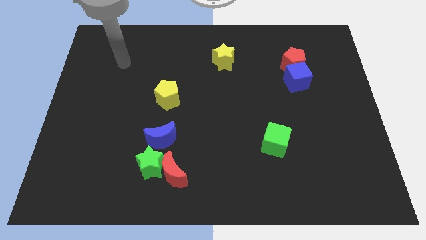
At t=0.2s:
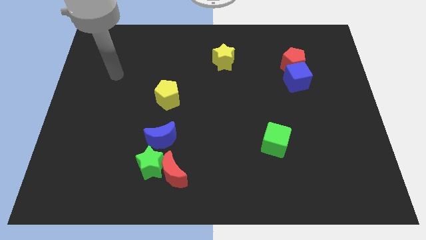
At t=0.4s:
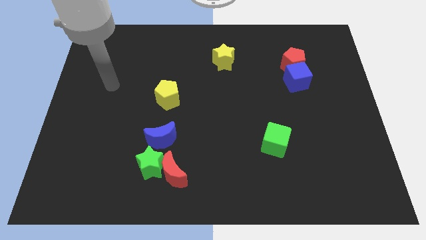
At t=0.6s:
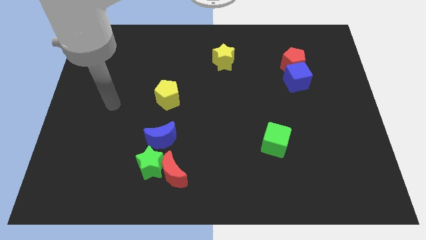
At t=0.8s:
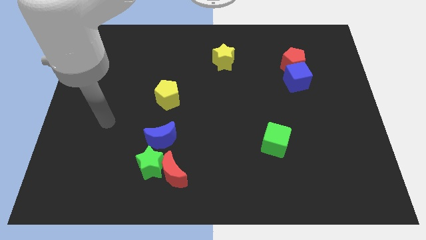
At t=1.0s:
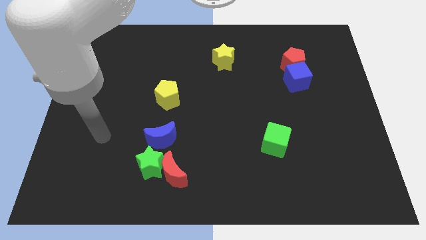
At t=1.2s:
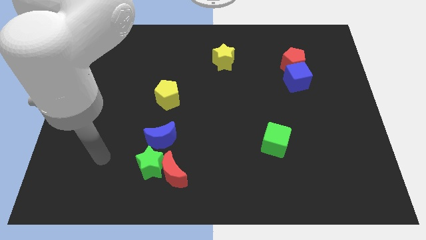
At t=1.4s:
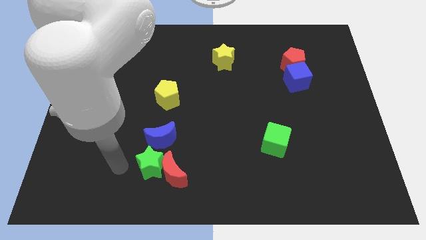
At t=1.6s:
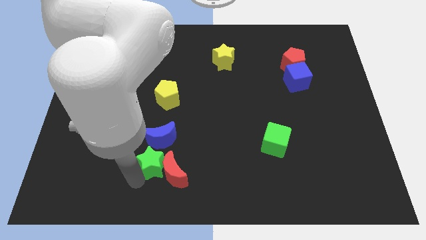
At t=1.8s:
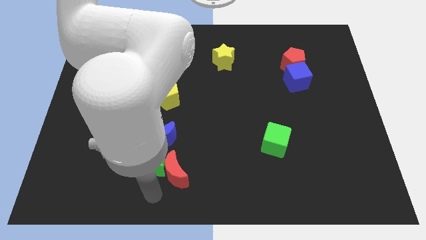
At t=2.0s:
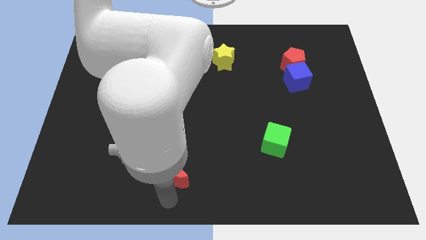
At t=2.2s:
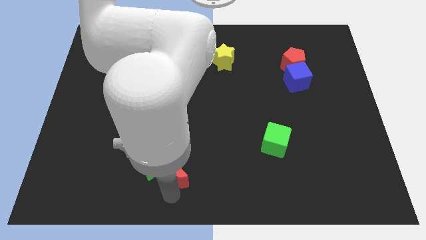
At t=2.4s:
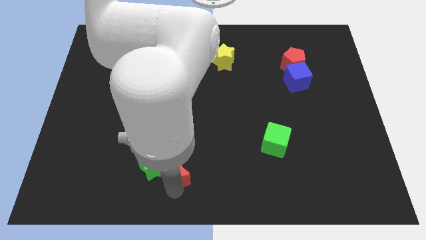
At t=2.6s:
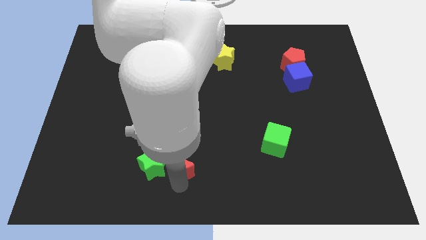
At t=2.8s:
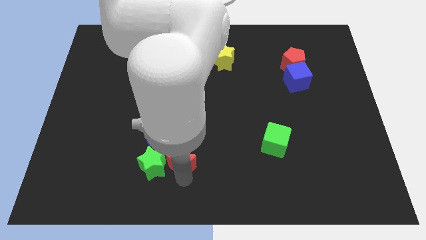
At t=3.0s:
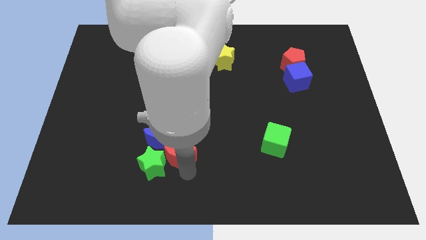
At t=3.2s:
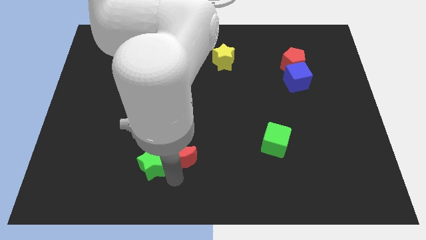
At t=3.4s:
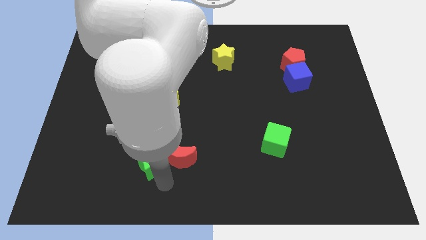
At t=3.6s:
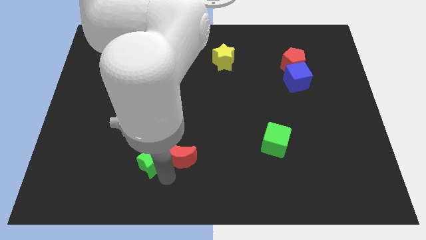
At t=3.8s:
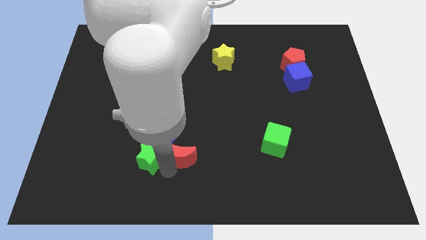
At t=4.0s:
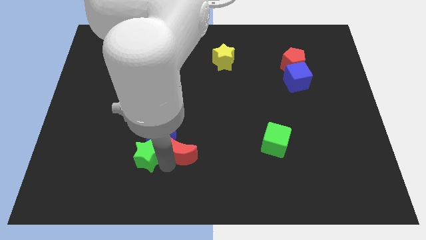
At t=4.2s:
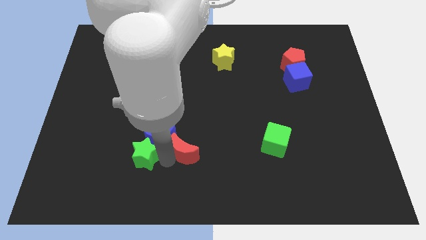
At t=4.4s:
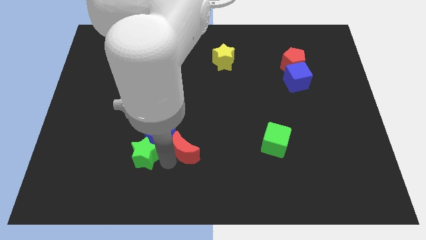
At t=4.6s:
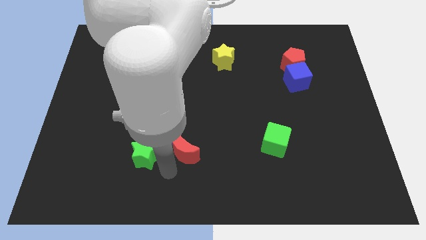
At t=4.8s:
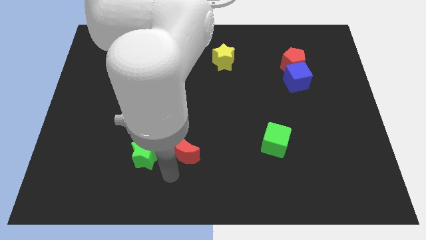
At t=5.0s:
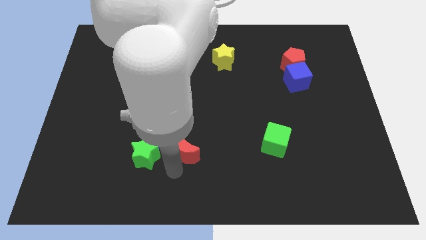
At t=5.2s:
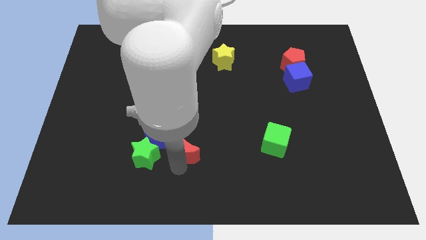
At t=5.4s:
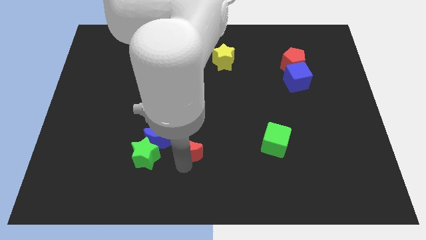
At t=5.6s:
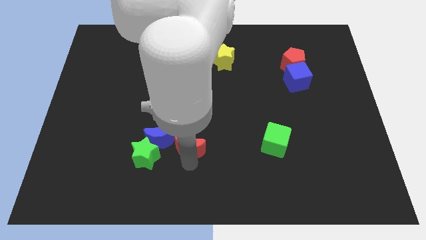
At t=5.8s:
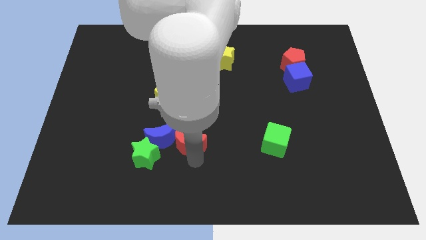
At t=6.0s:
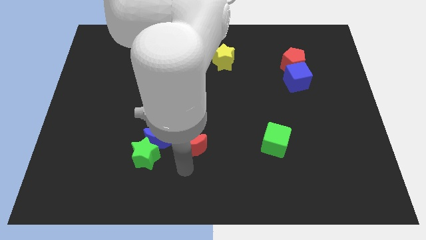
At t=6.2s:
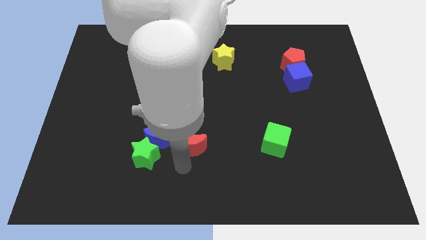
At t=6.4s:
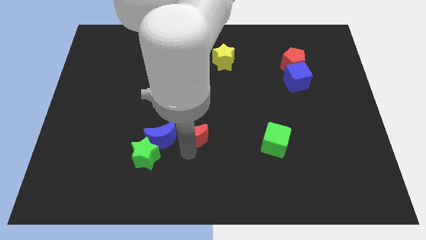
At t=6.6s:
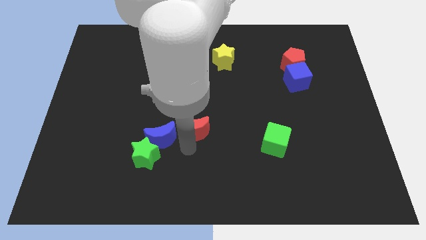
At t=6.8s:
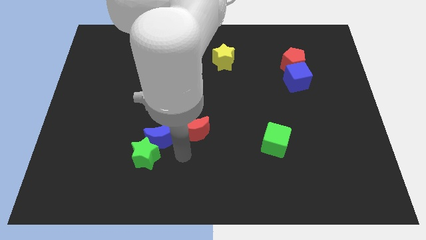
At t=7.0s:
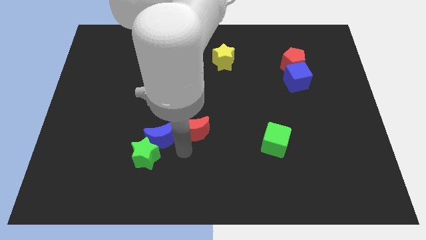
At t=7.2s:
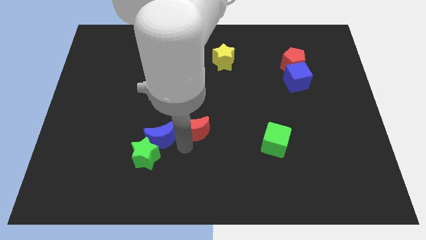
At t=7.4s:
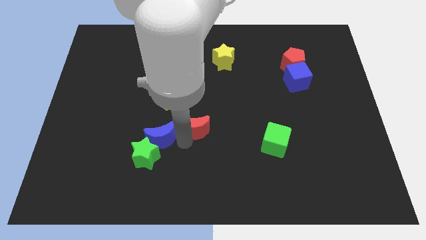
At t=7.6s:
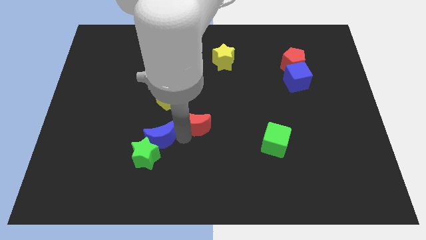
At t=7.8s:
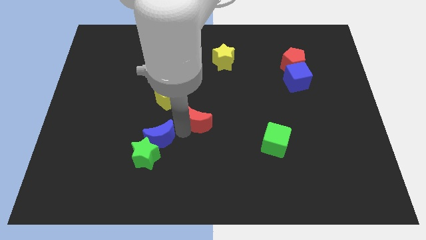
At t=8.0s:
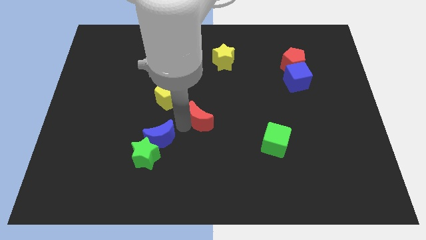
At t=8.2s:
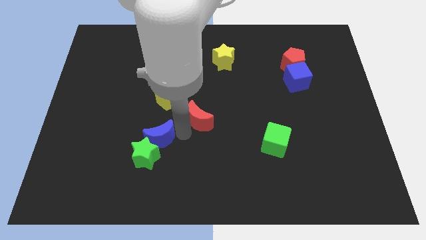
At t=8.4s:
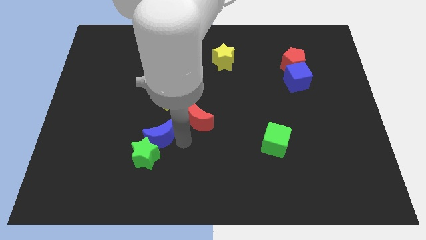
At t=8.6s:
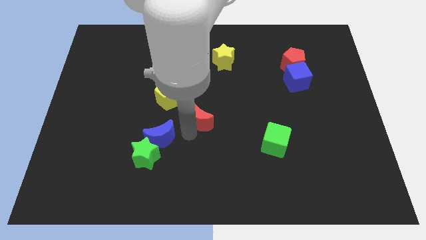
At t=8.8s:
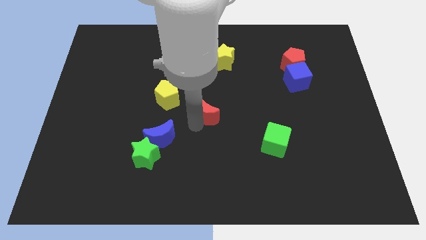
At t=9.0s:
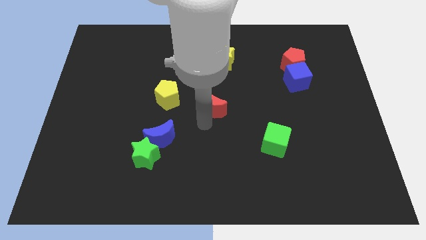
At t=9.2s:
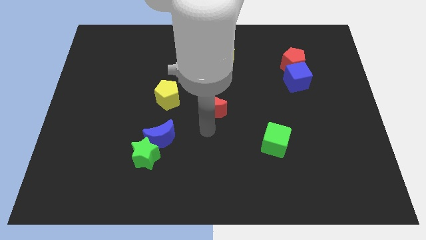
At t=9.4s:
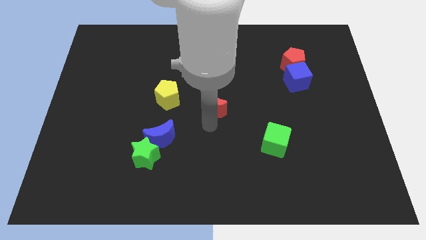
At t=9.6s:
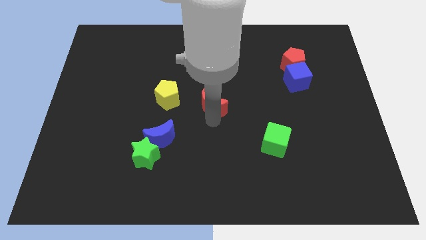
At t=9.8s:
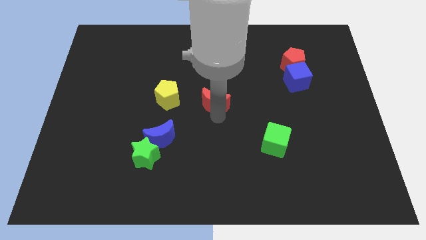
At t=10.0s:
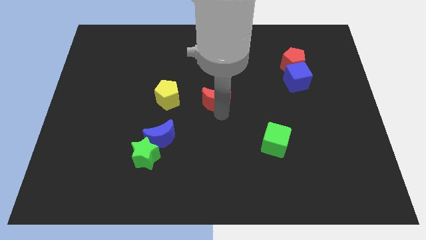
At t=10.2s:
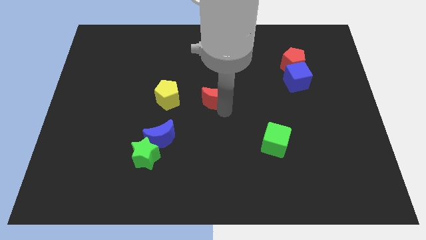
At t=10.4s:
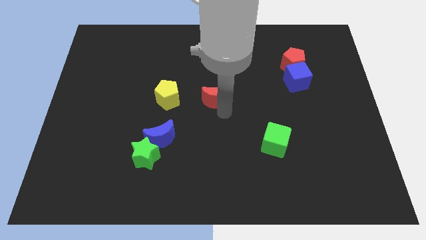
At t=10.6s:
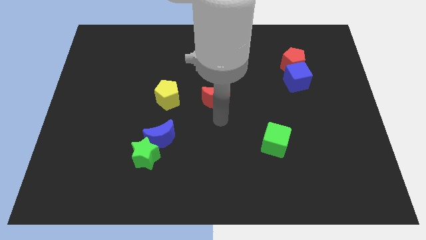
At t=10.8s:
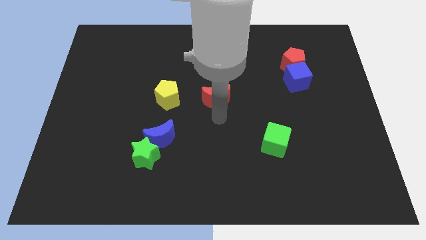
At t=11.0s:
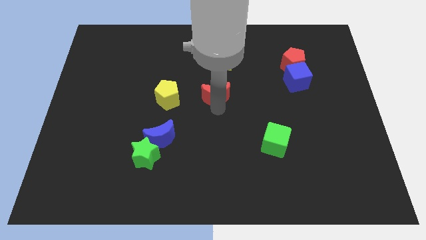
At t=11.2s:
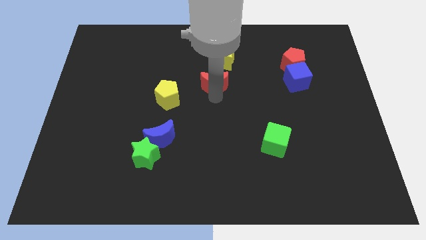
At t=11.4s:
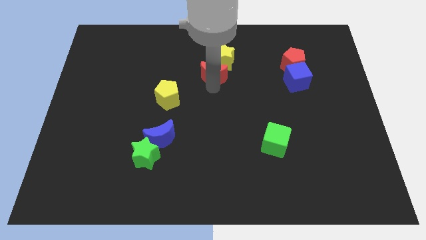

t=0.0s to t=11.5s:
slide the red moon towards the yellow star

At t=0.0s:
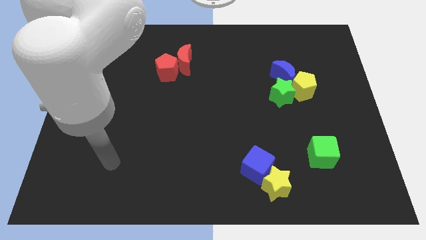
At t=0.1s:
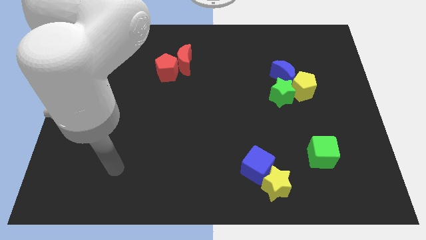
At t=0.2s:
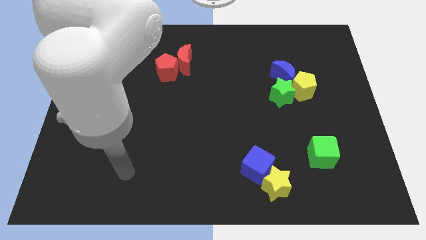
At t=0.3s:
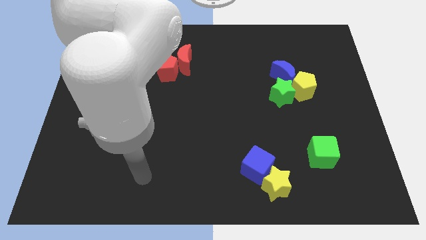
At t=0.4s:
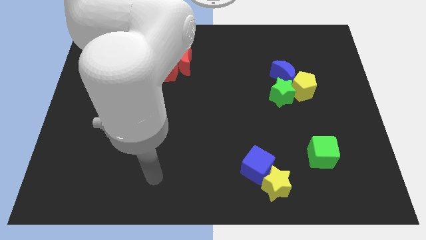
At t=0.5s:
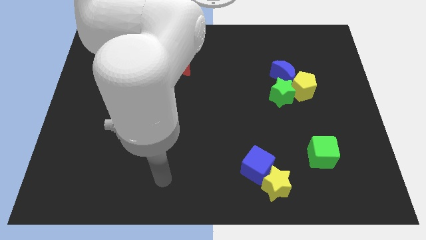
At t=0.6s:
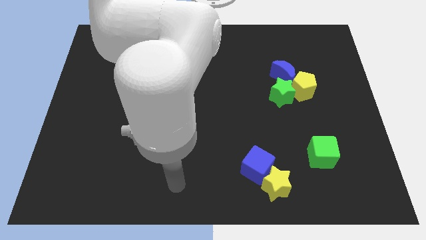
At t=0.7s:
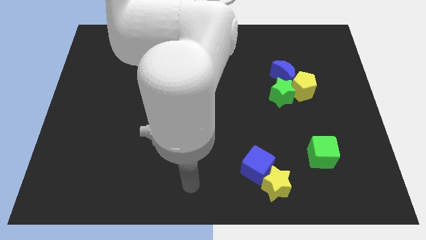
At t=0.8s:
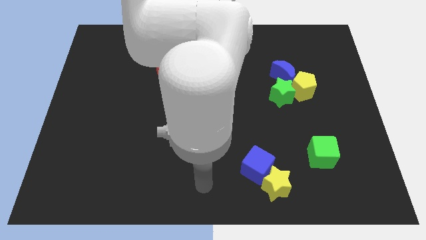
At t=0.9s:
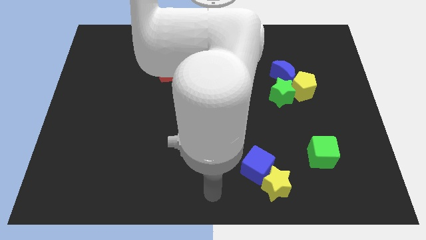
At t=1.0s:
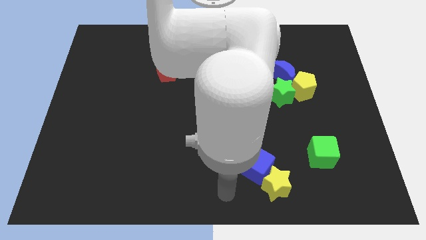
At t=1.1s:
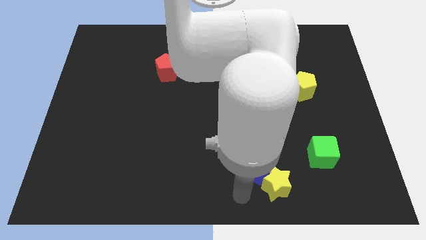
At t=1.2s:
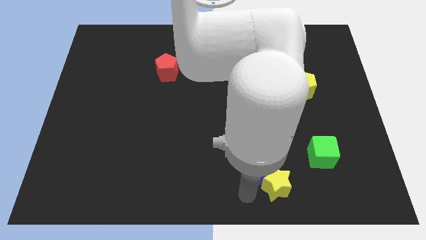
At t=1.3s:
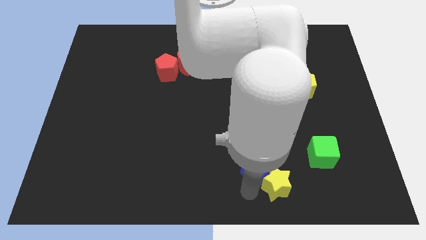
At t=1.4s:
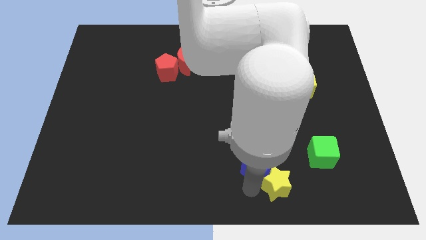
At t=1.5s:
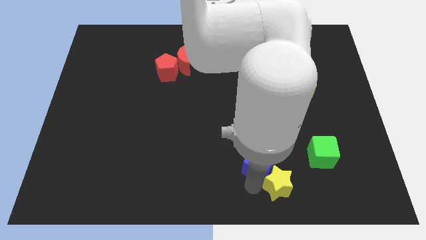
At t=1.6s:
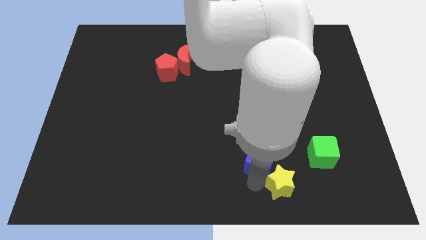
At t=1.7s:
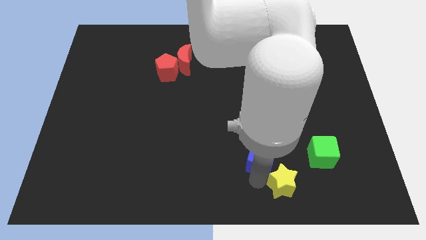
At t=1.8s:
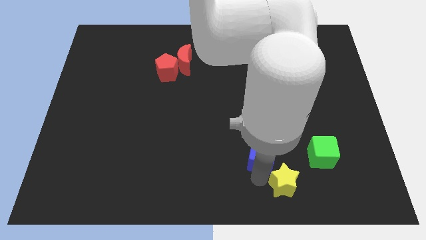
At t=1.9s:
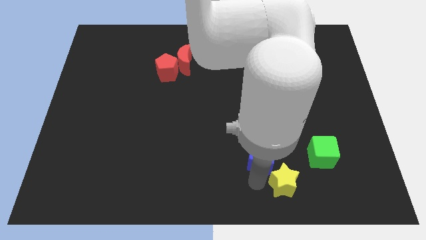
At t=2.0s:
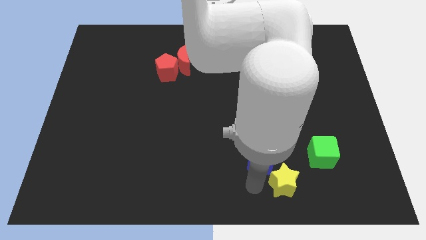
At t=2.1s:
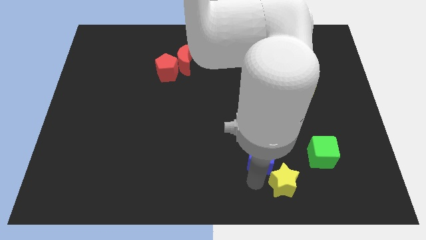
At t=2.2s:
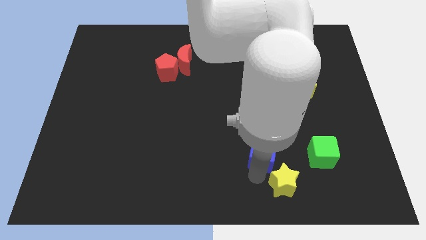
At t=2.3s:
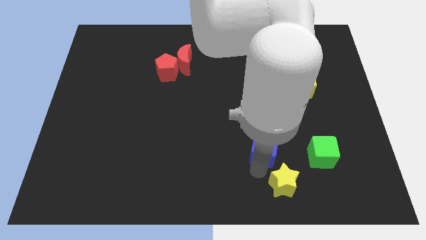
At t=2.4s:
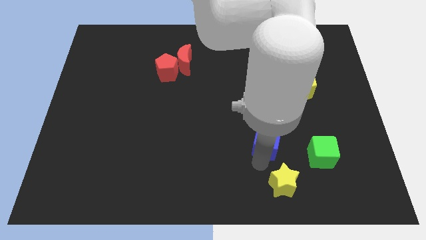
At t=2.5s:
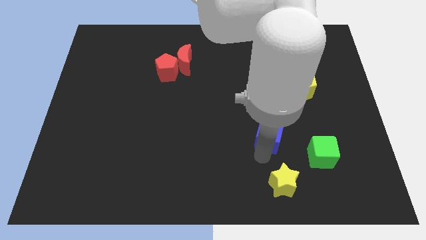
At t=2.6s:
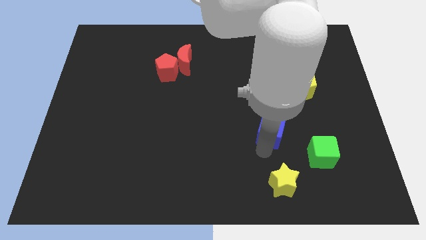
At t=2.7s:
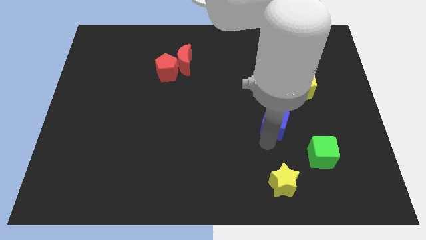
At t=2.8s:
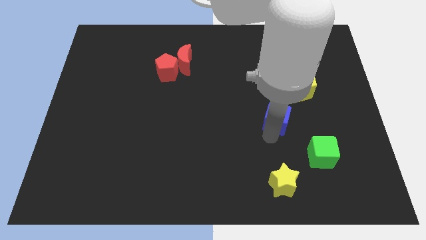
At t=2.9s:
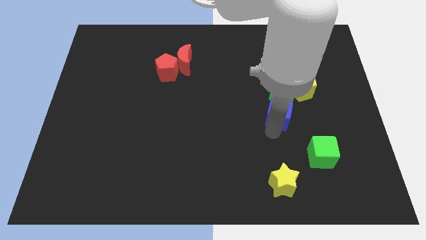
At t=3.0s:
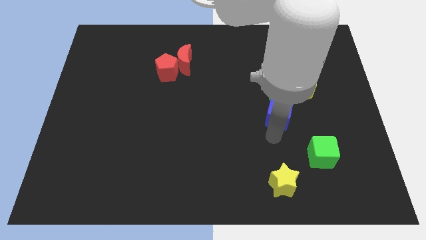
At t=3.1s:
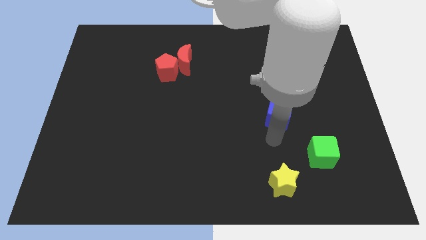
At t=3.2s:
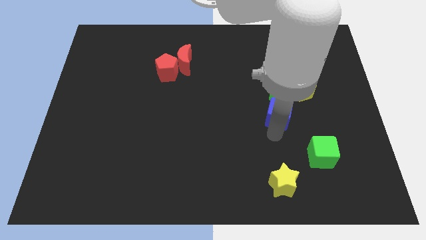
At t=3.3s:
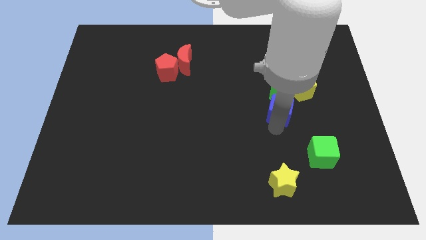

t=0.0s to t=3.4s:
push the blue cube towards the green star
